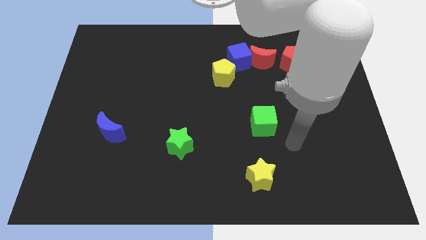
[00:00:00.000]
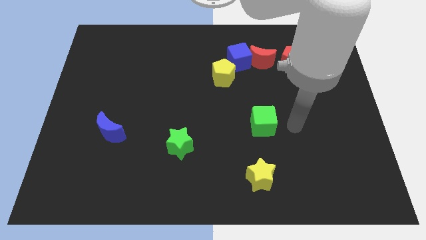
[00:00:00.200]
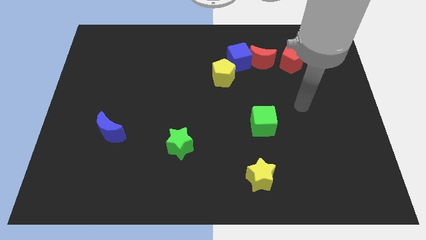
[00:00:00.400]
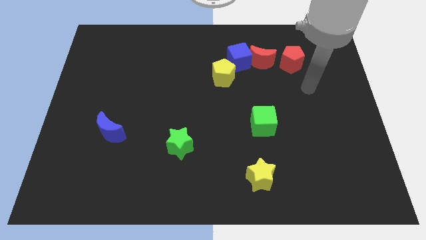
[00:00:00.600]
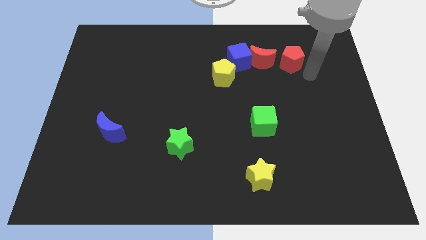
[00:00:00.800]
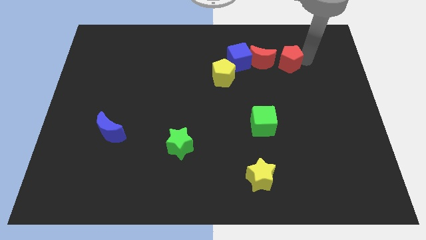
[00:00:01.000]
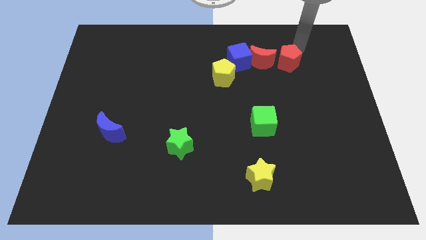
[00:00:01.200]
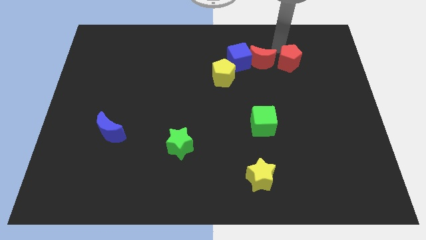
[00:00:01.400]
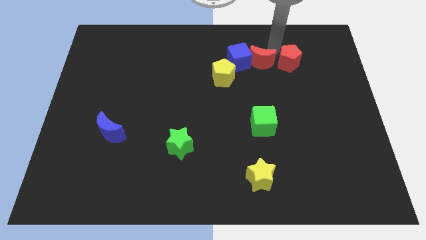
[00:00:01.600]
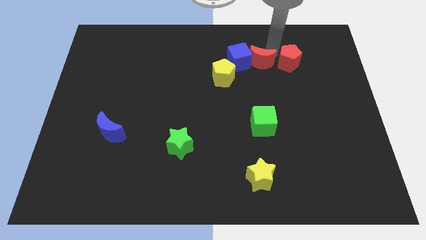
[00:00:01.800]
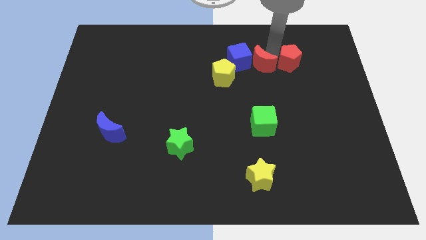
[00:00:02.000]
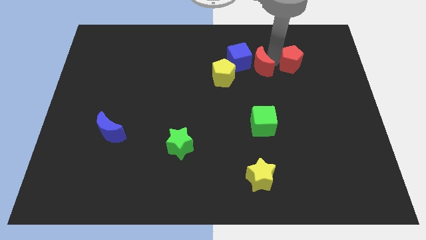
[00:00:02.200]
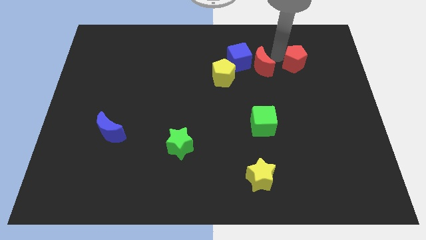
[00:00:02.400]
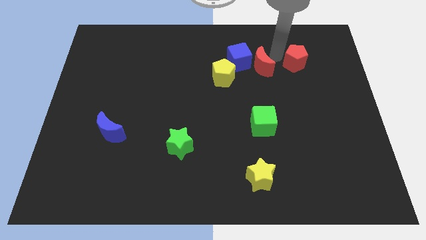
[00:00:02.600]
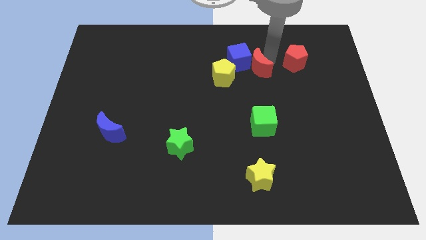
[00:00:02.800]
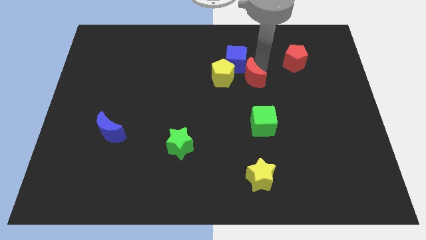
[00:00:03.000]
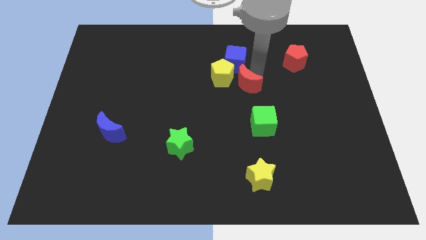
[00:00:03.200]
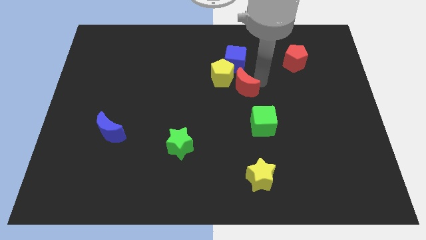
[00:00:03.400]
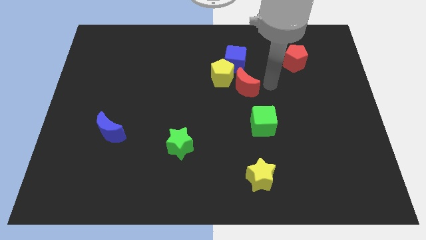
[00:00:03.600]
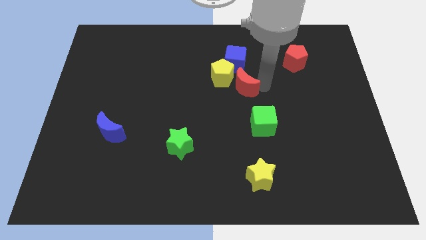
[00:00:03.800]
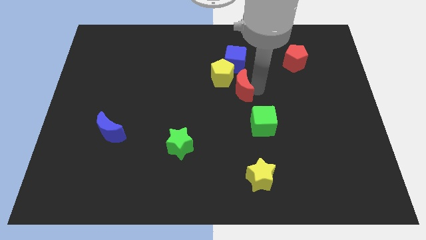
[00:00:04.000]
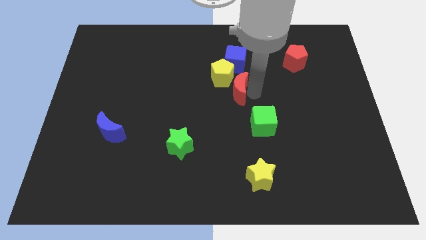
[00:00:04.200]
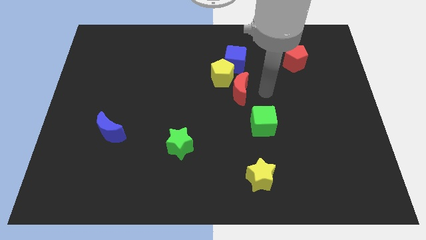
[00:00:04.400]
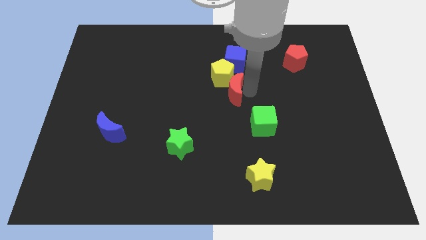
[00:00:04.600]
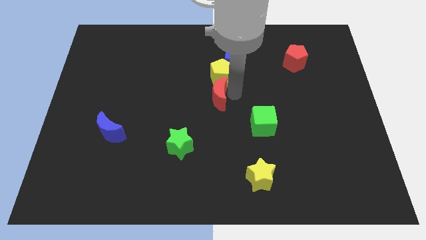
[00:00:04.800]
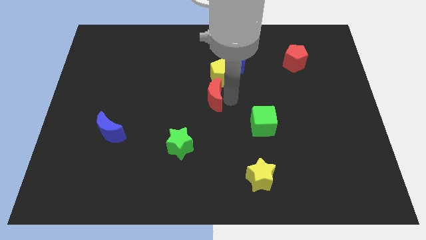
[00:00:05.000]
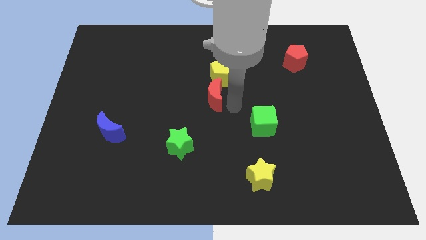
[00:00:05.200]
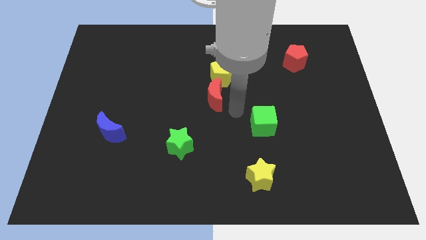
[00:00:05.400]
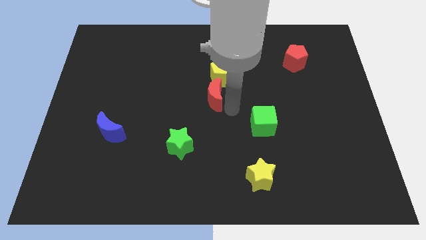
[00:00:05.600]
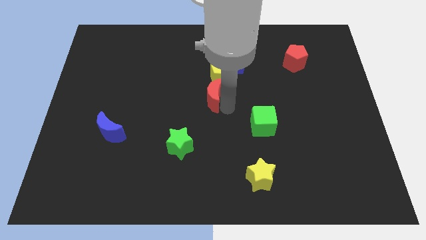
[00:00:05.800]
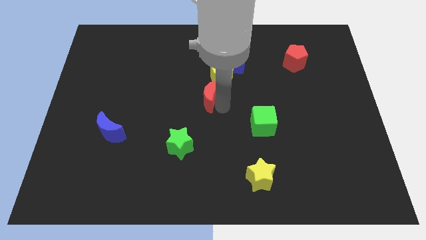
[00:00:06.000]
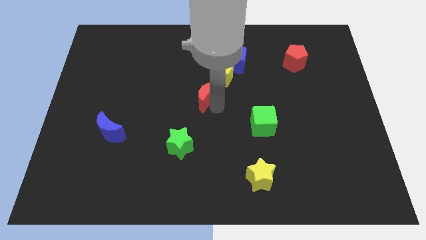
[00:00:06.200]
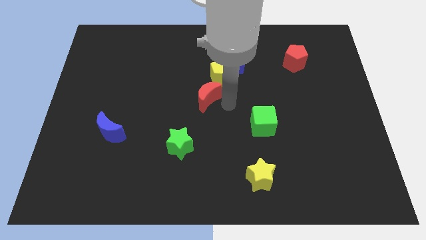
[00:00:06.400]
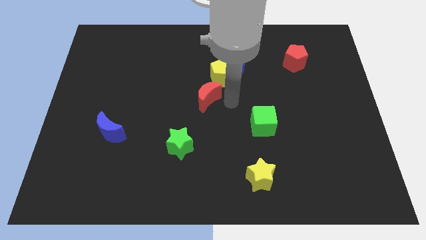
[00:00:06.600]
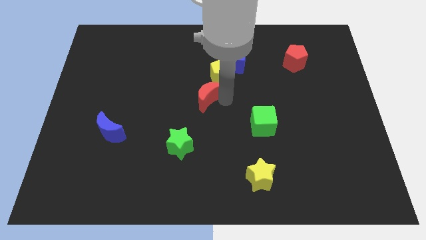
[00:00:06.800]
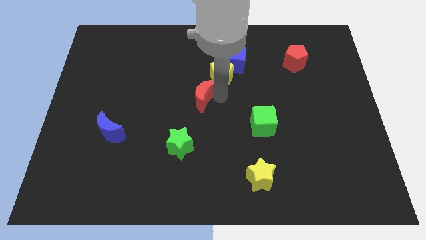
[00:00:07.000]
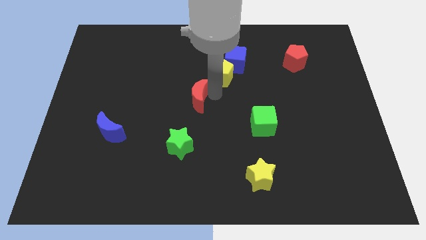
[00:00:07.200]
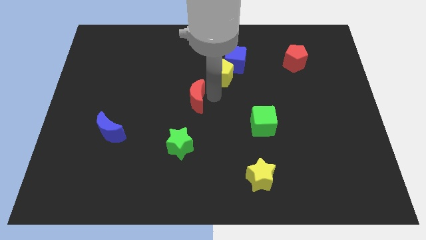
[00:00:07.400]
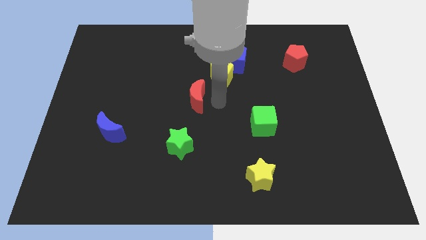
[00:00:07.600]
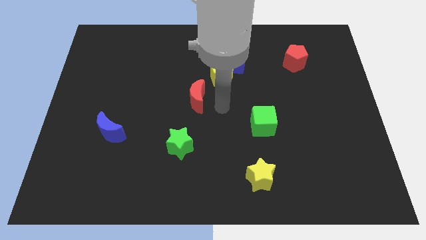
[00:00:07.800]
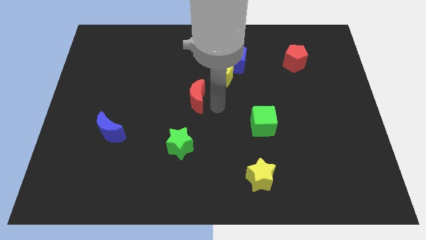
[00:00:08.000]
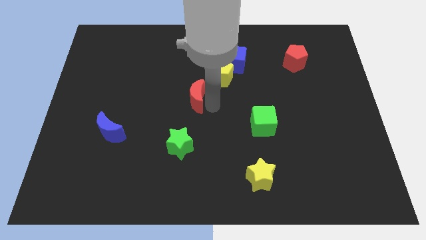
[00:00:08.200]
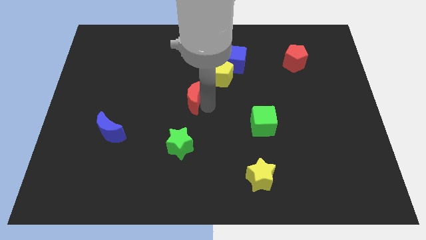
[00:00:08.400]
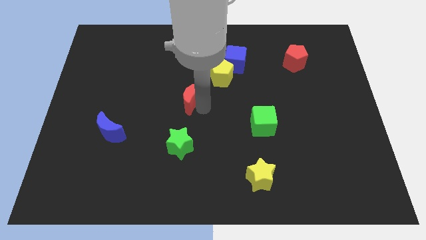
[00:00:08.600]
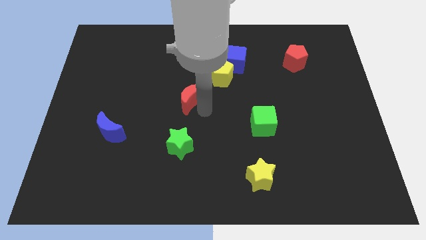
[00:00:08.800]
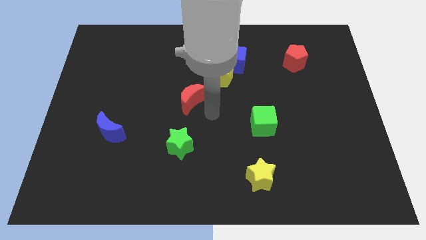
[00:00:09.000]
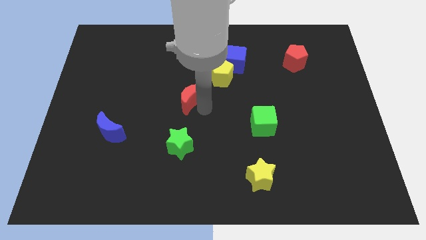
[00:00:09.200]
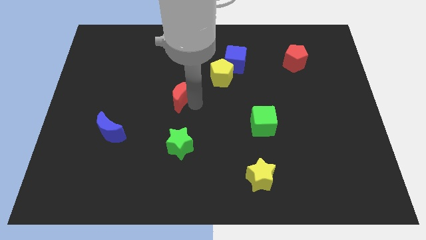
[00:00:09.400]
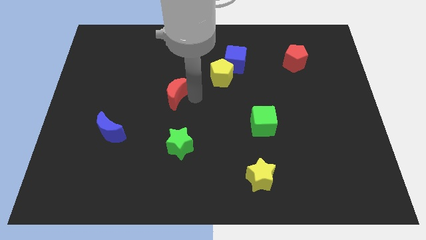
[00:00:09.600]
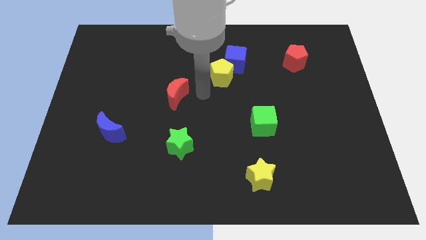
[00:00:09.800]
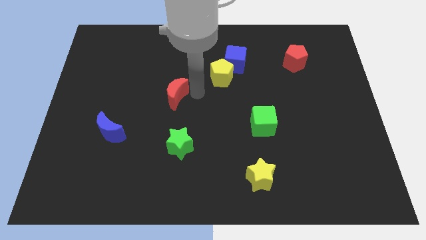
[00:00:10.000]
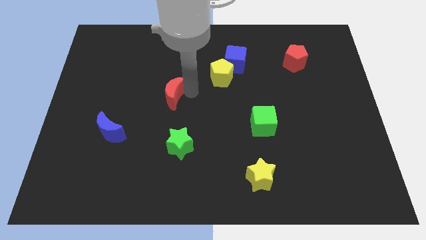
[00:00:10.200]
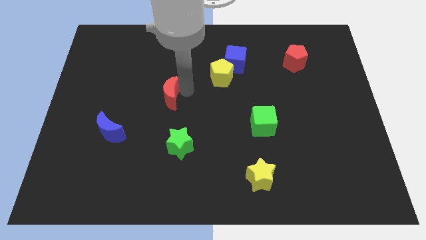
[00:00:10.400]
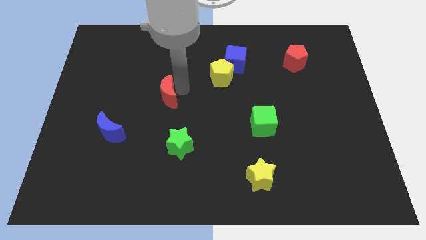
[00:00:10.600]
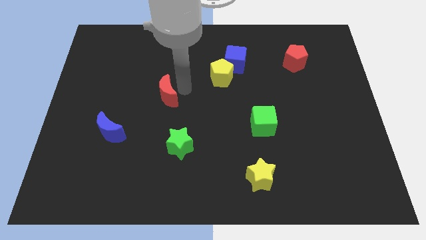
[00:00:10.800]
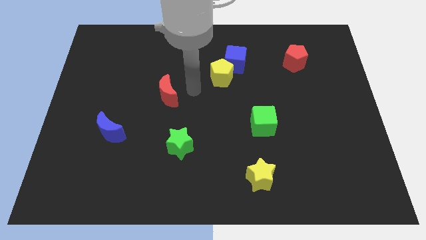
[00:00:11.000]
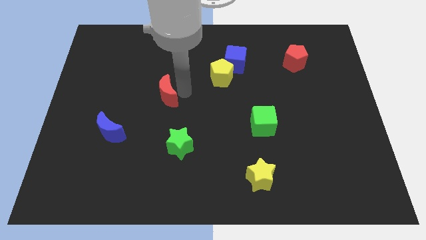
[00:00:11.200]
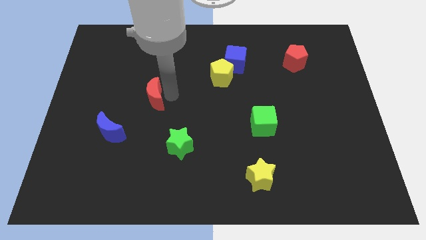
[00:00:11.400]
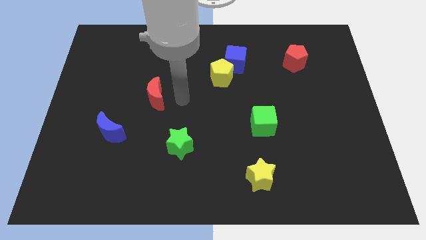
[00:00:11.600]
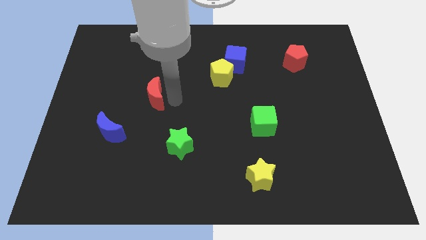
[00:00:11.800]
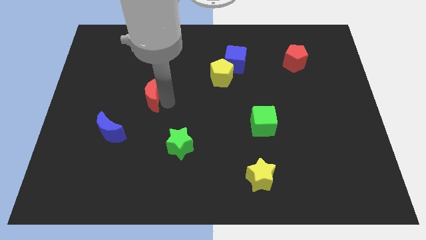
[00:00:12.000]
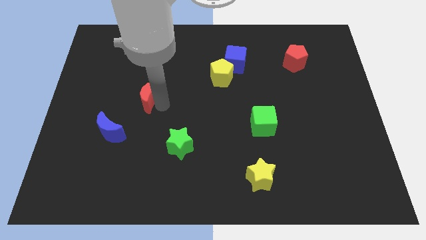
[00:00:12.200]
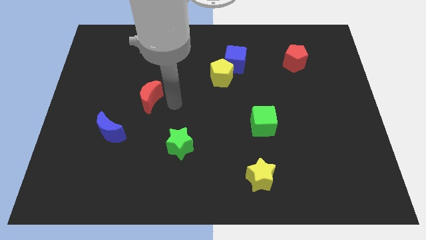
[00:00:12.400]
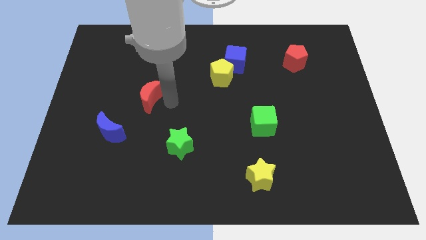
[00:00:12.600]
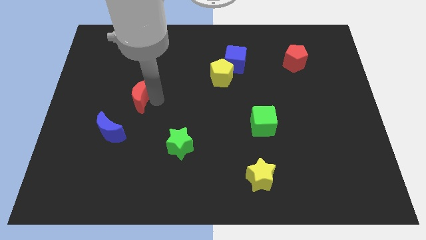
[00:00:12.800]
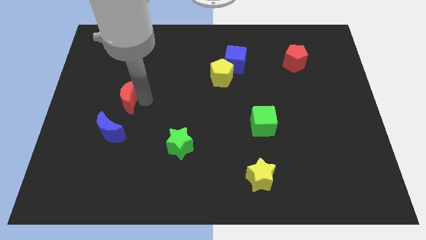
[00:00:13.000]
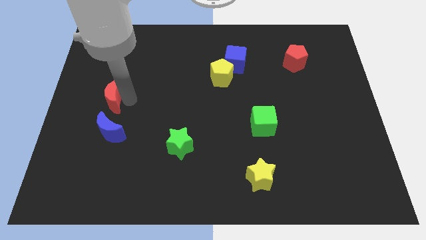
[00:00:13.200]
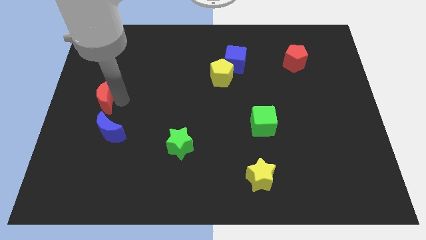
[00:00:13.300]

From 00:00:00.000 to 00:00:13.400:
push the red moon to the center left
